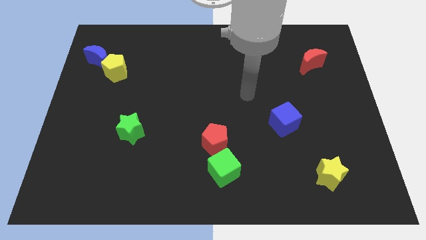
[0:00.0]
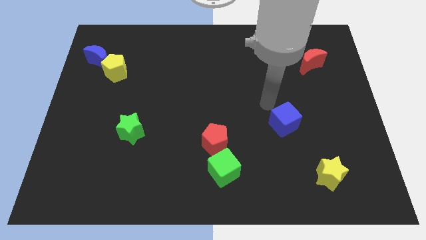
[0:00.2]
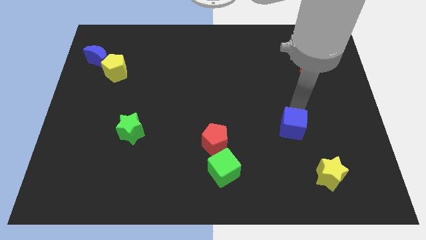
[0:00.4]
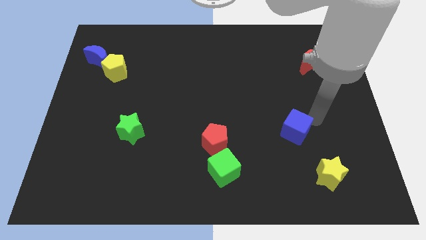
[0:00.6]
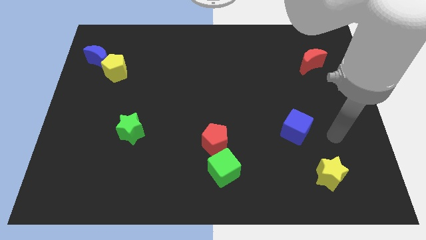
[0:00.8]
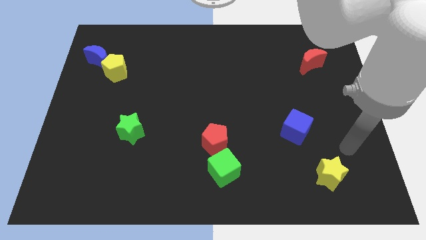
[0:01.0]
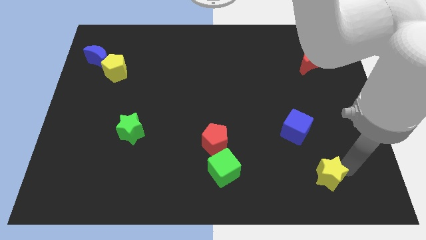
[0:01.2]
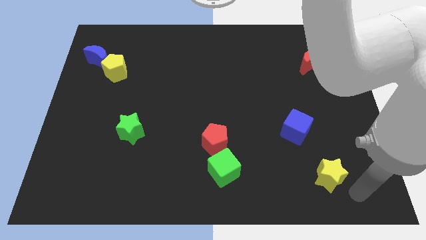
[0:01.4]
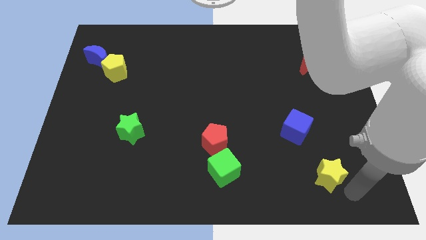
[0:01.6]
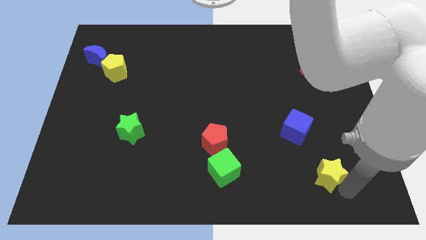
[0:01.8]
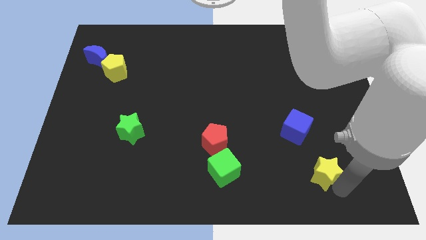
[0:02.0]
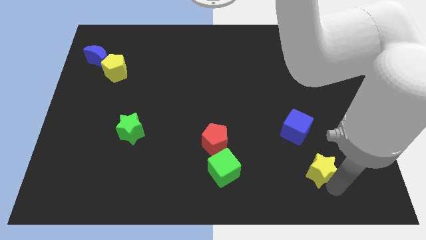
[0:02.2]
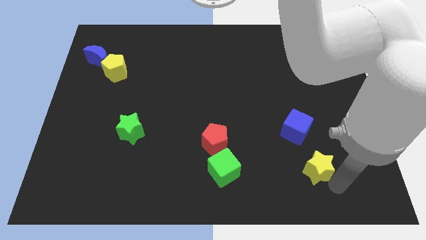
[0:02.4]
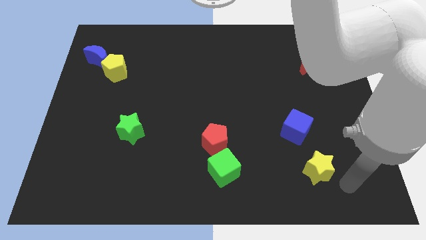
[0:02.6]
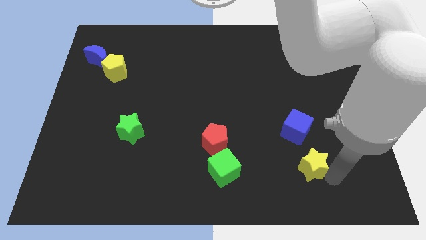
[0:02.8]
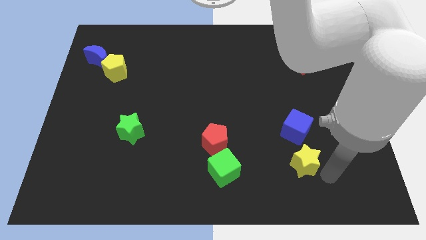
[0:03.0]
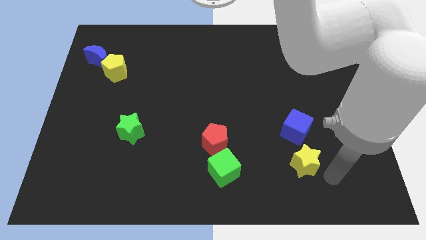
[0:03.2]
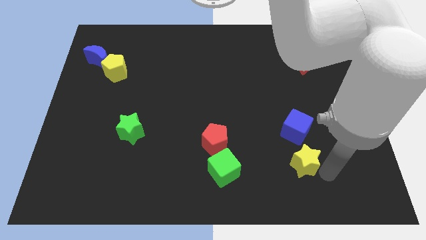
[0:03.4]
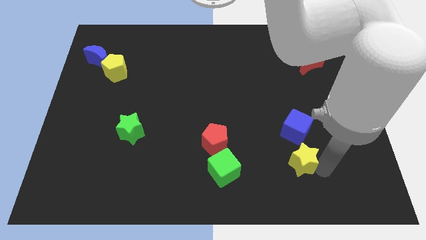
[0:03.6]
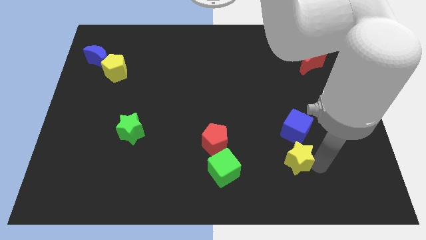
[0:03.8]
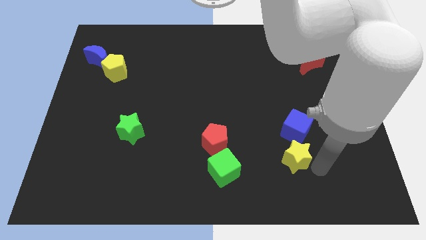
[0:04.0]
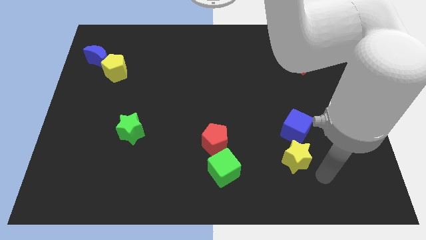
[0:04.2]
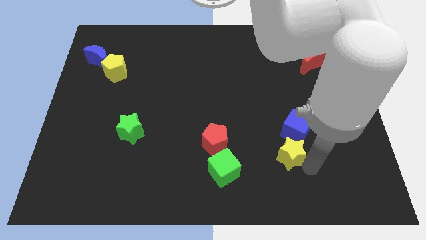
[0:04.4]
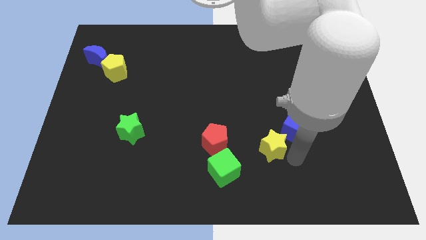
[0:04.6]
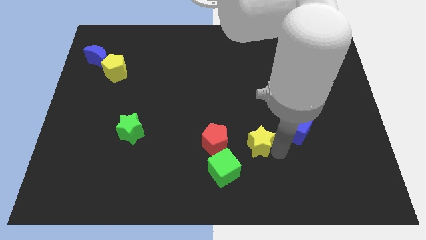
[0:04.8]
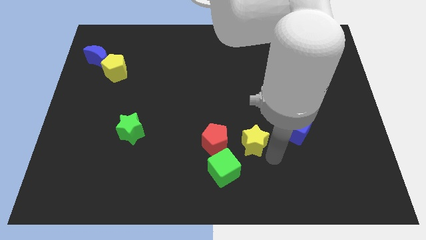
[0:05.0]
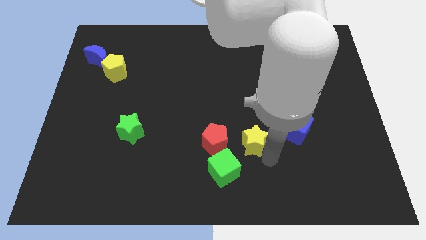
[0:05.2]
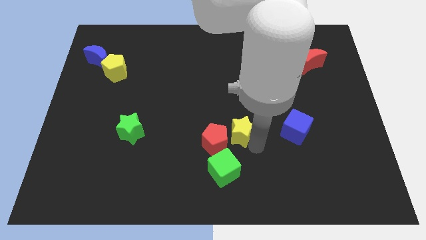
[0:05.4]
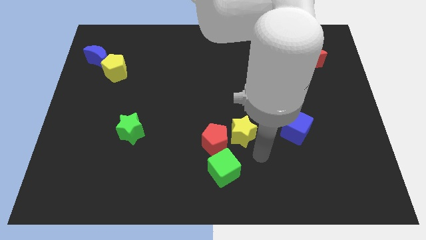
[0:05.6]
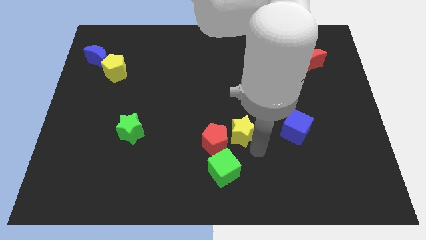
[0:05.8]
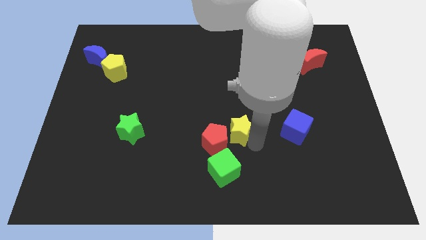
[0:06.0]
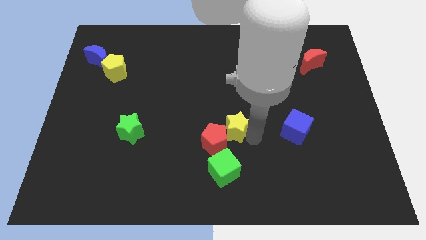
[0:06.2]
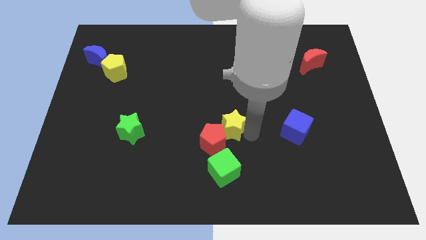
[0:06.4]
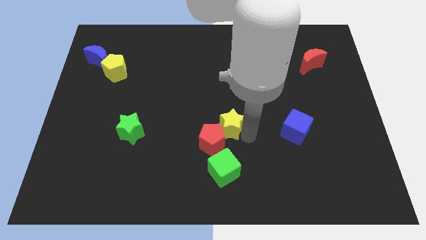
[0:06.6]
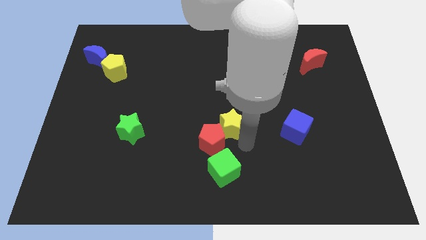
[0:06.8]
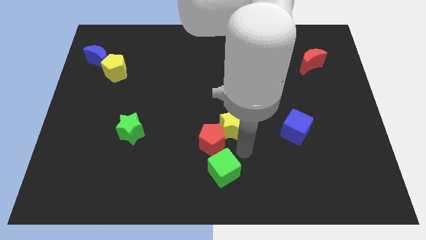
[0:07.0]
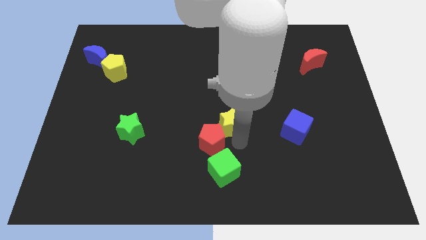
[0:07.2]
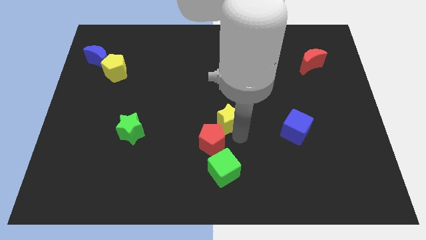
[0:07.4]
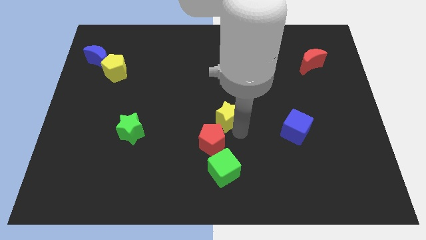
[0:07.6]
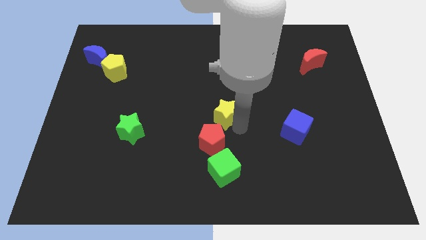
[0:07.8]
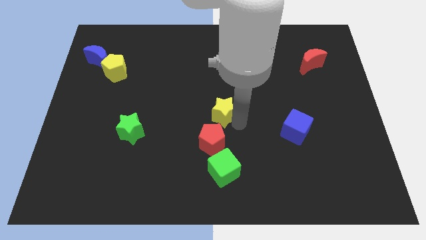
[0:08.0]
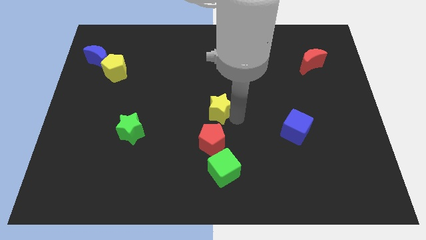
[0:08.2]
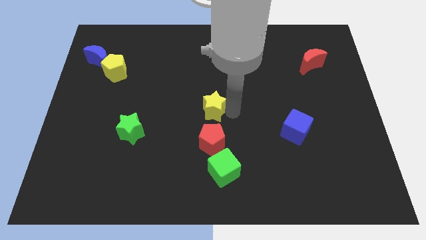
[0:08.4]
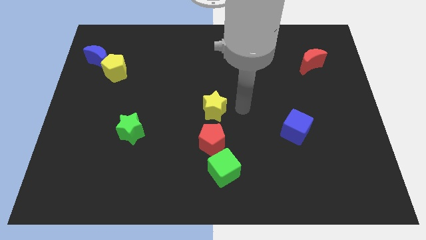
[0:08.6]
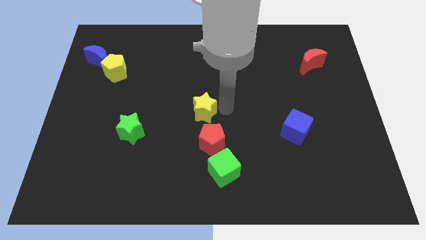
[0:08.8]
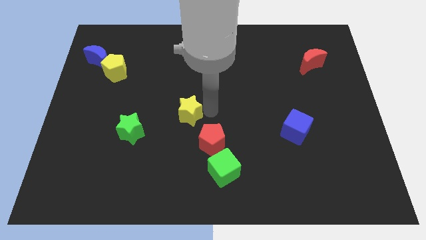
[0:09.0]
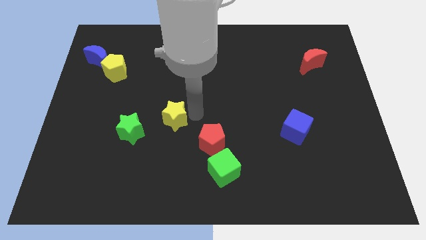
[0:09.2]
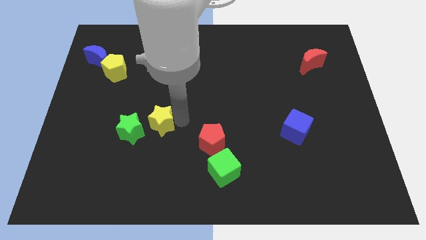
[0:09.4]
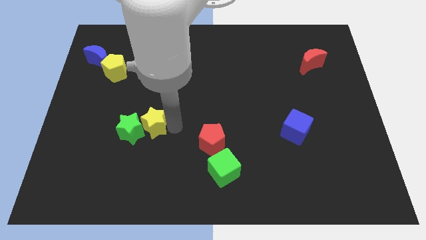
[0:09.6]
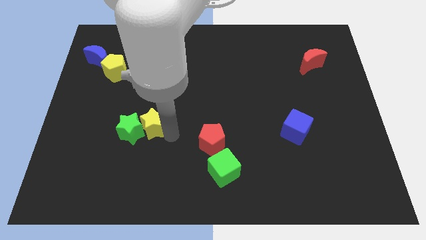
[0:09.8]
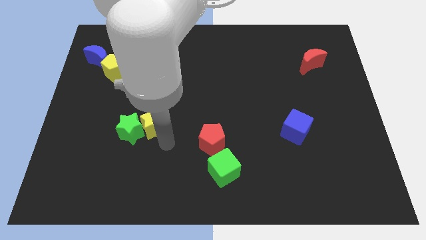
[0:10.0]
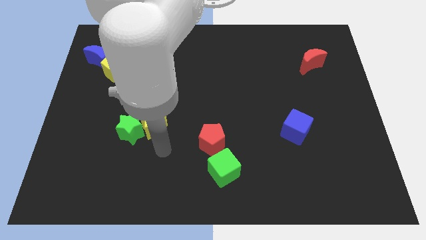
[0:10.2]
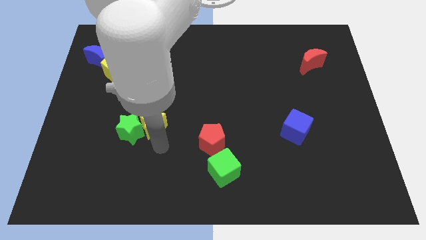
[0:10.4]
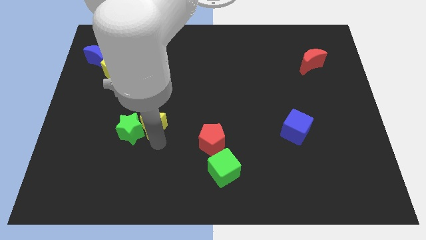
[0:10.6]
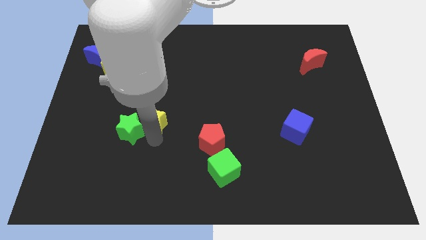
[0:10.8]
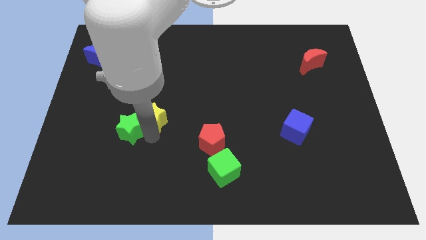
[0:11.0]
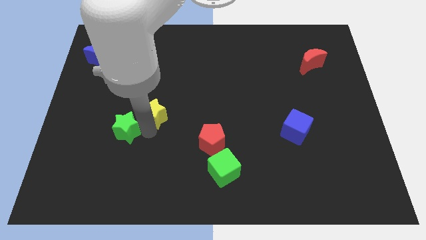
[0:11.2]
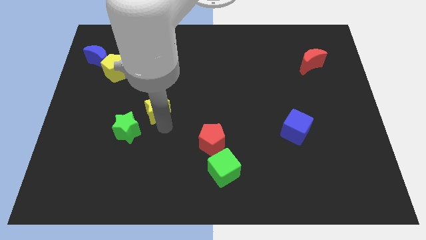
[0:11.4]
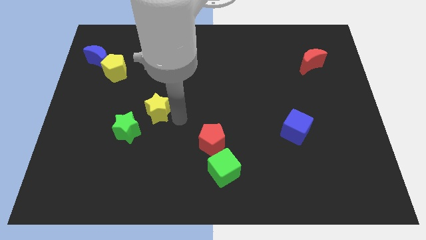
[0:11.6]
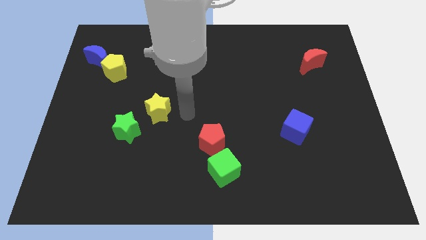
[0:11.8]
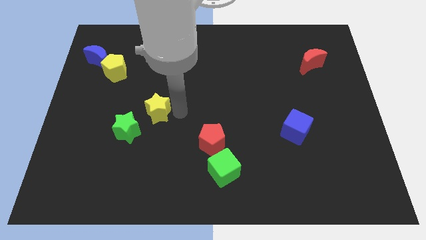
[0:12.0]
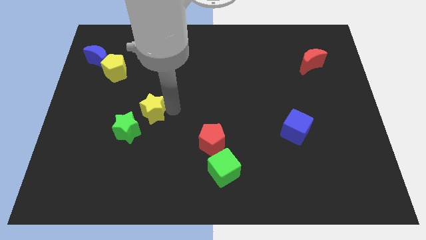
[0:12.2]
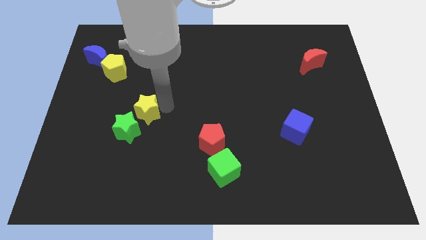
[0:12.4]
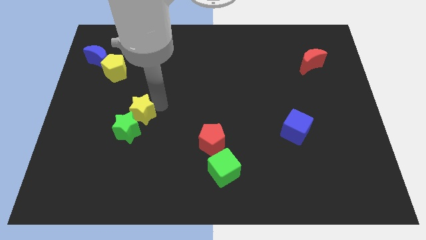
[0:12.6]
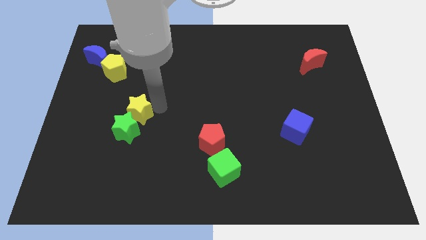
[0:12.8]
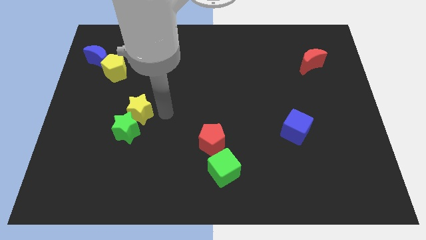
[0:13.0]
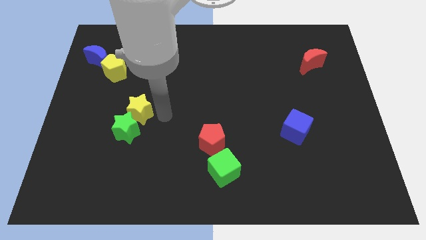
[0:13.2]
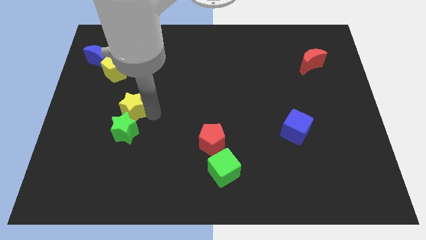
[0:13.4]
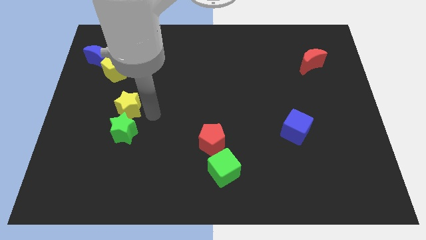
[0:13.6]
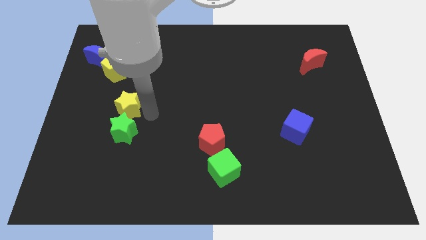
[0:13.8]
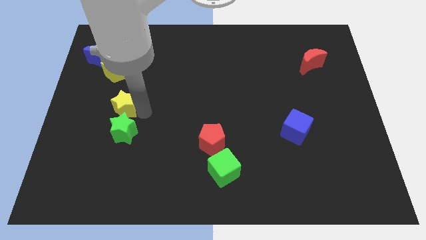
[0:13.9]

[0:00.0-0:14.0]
put the yellow star to the bottom of the yellow pentagon
